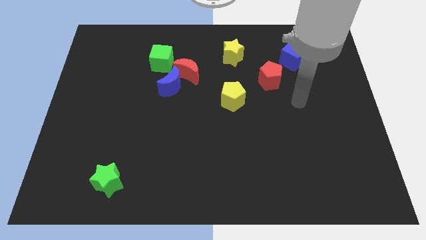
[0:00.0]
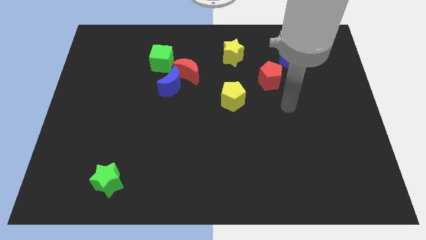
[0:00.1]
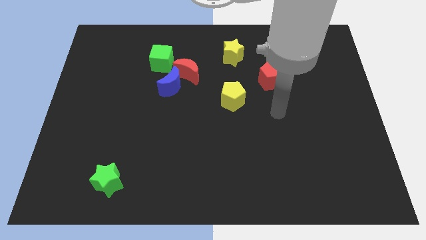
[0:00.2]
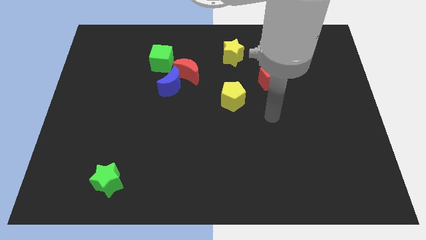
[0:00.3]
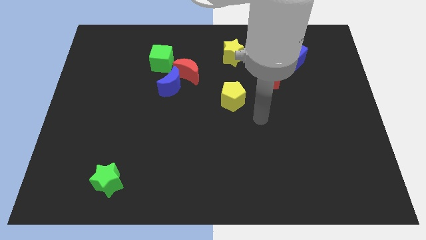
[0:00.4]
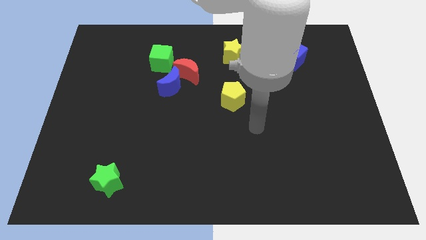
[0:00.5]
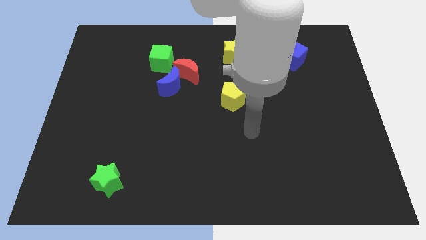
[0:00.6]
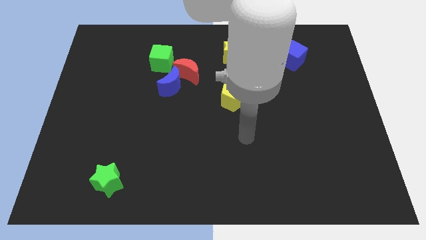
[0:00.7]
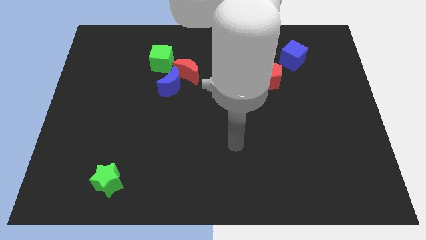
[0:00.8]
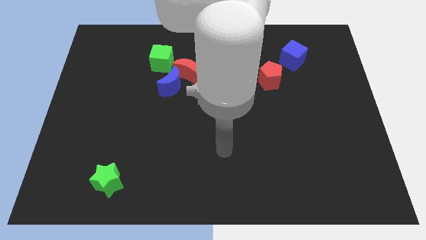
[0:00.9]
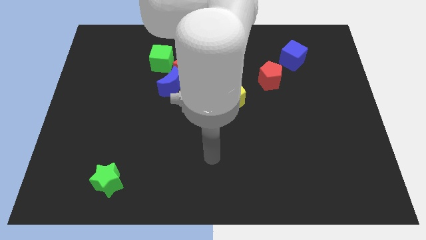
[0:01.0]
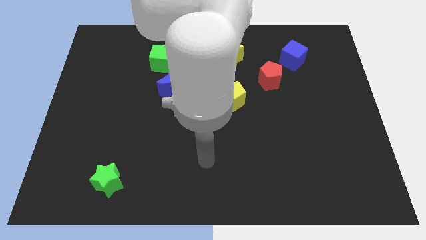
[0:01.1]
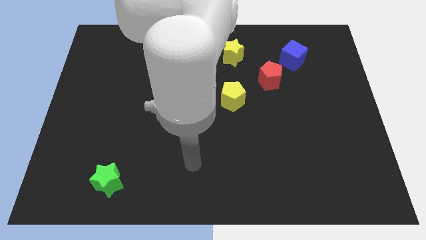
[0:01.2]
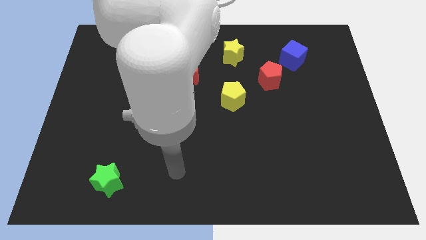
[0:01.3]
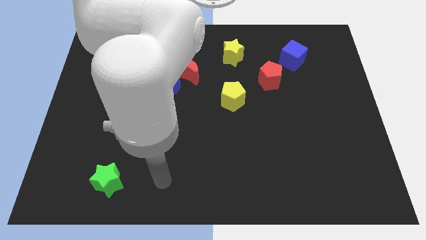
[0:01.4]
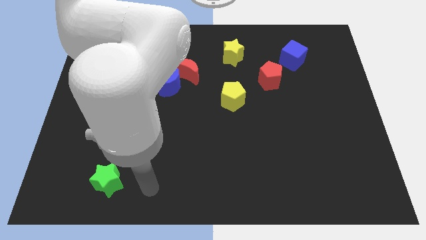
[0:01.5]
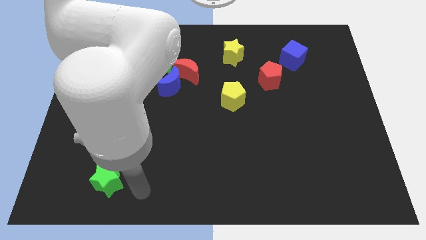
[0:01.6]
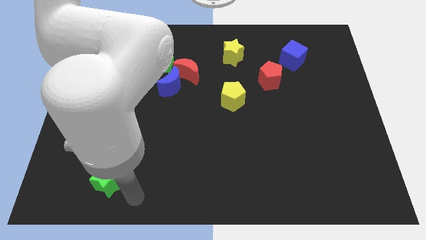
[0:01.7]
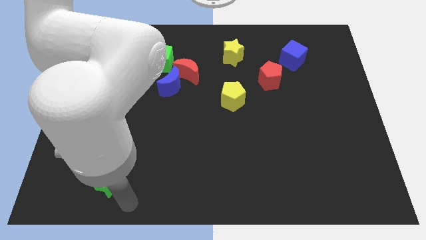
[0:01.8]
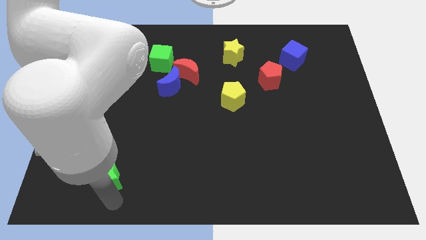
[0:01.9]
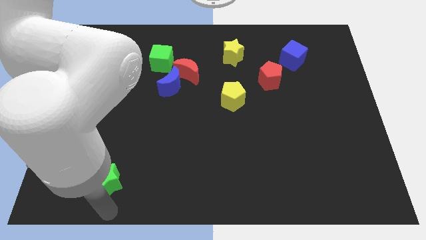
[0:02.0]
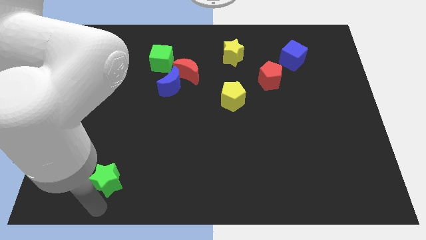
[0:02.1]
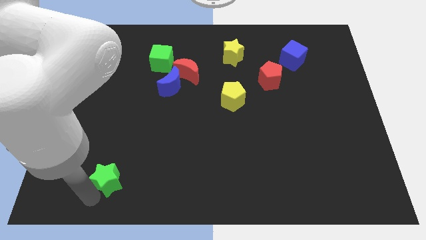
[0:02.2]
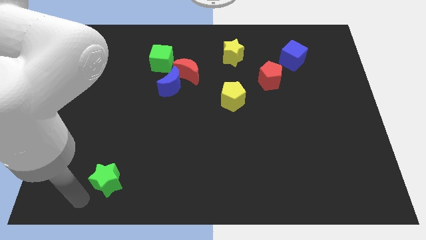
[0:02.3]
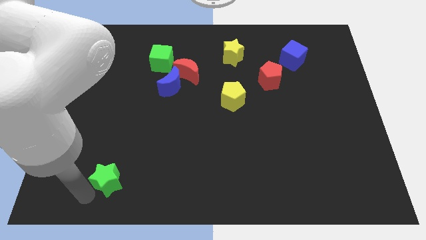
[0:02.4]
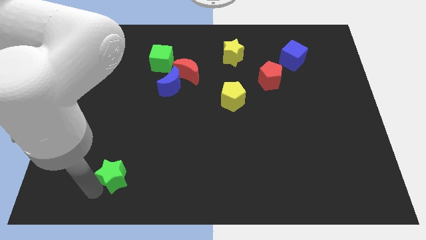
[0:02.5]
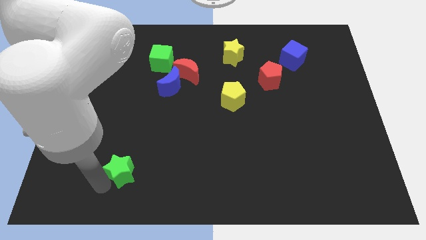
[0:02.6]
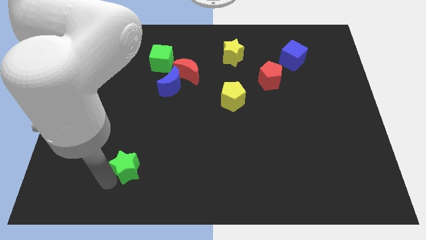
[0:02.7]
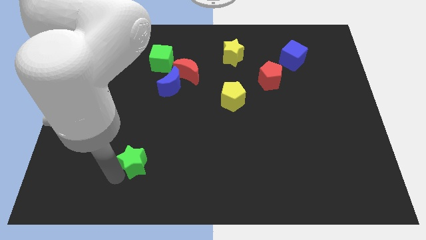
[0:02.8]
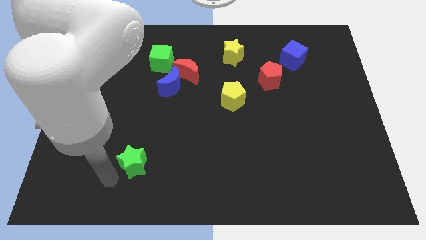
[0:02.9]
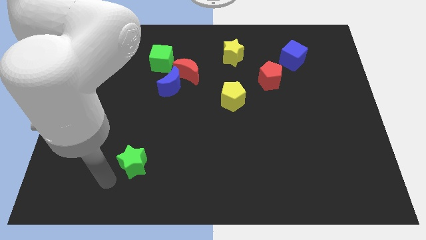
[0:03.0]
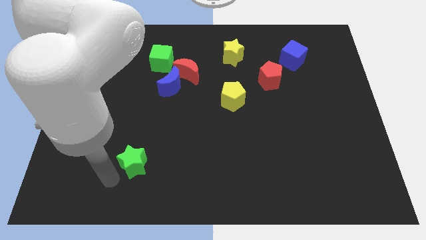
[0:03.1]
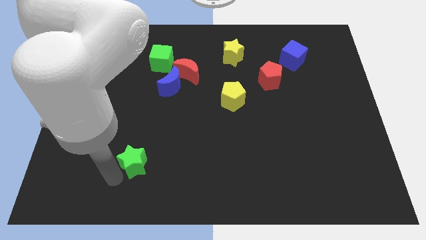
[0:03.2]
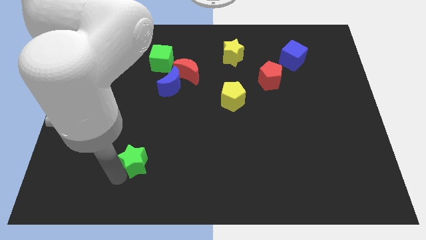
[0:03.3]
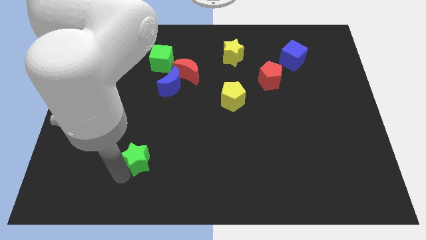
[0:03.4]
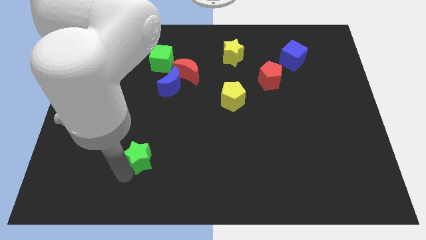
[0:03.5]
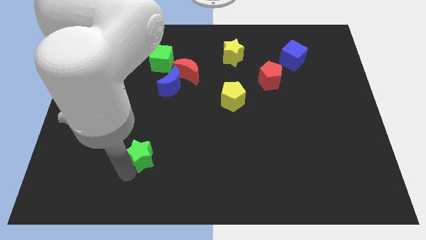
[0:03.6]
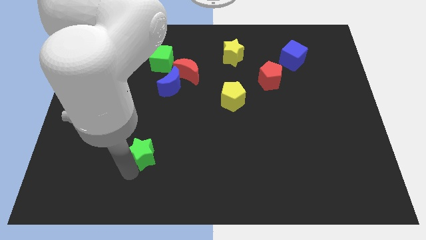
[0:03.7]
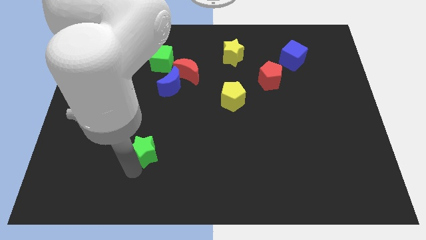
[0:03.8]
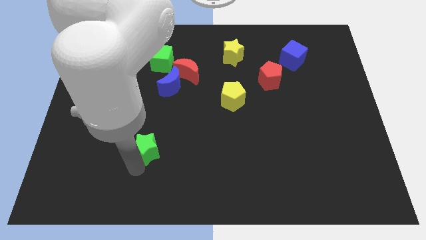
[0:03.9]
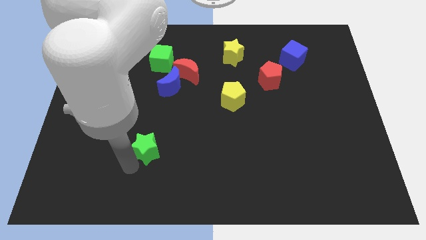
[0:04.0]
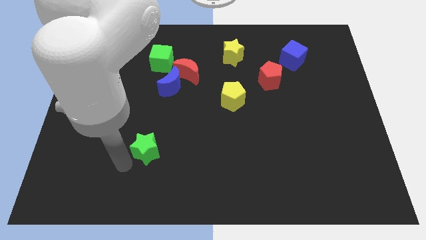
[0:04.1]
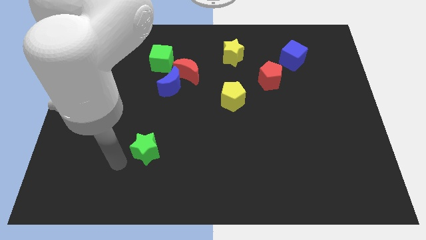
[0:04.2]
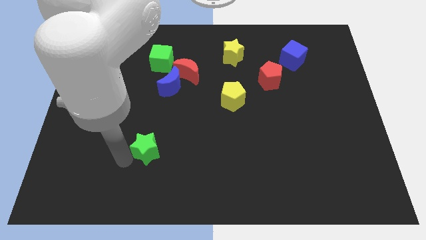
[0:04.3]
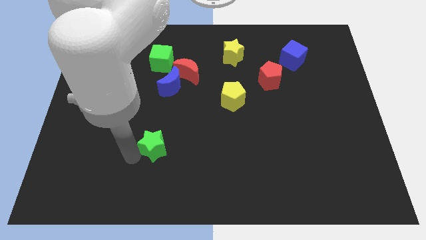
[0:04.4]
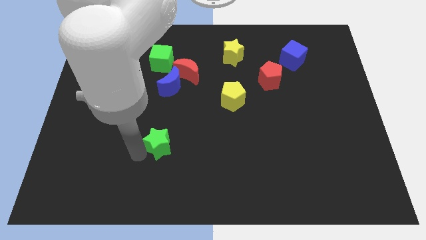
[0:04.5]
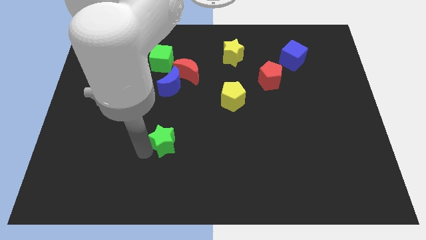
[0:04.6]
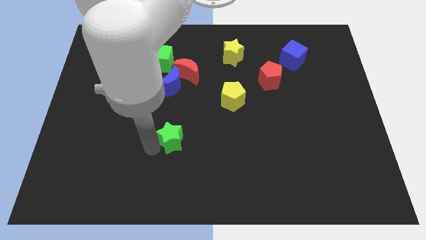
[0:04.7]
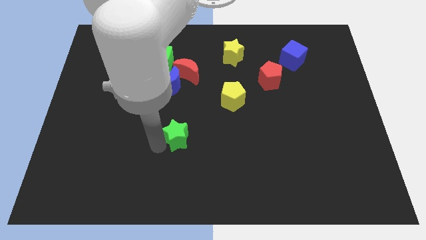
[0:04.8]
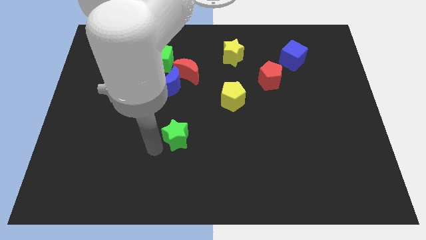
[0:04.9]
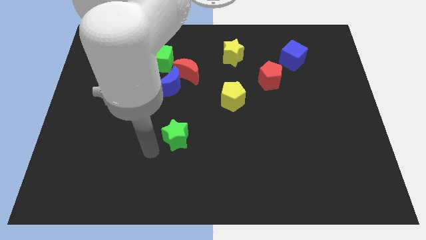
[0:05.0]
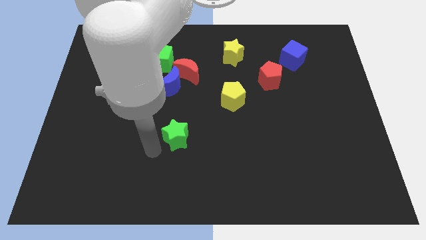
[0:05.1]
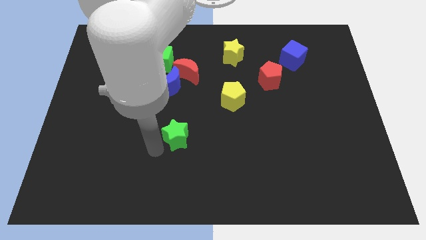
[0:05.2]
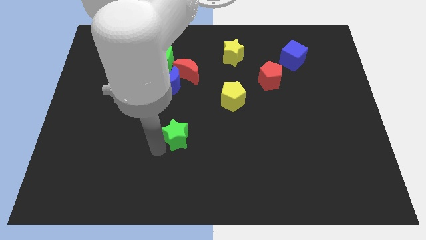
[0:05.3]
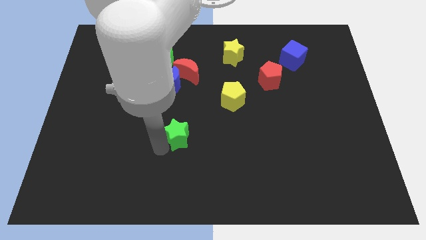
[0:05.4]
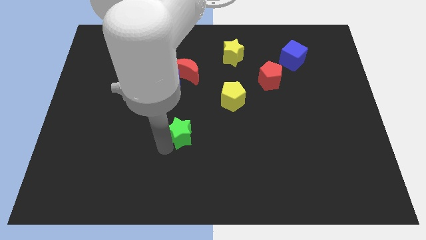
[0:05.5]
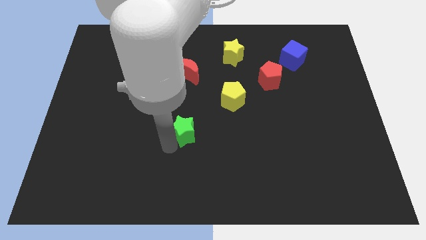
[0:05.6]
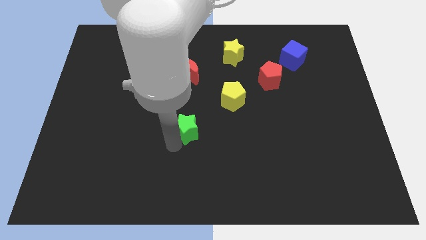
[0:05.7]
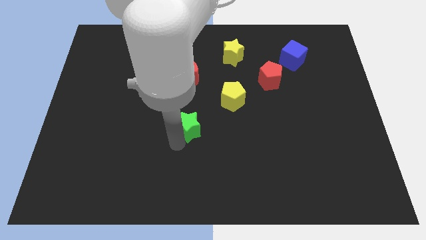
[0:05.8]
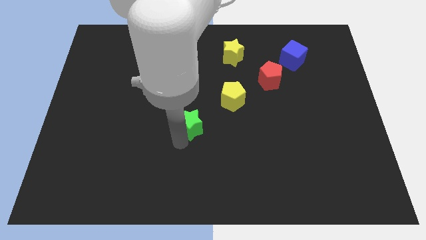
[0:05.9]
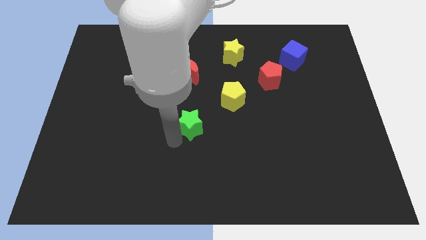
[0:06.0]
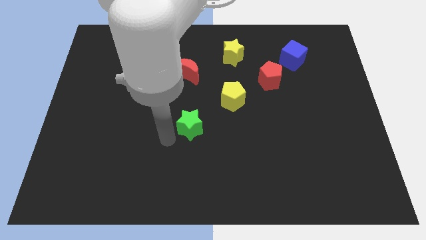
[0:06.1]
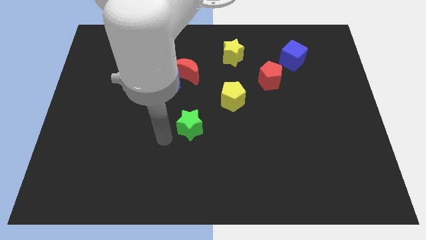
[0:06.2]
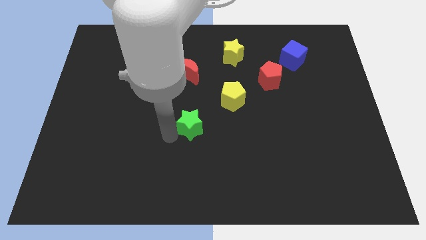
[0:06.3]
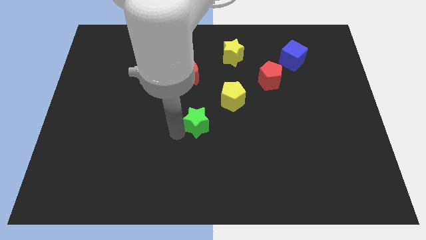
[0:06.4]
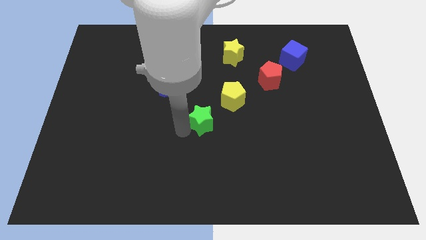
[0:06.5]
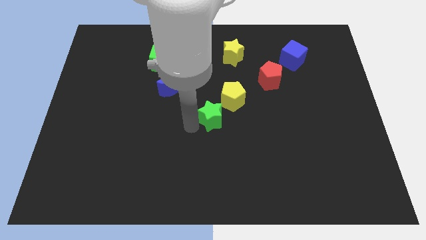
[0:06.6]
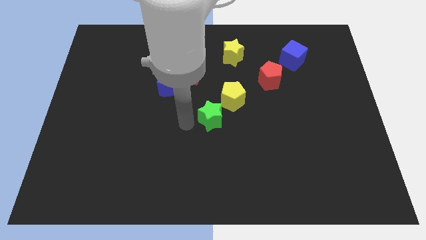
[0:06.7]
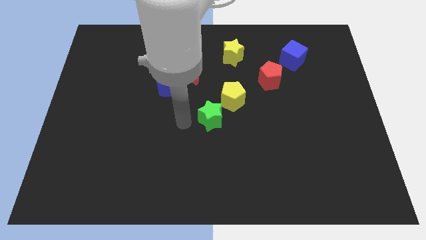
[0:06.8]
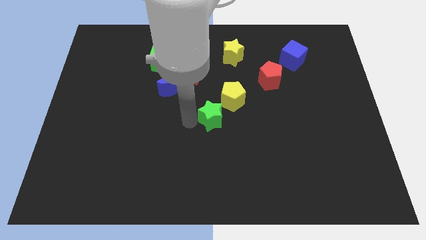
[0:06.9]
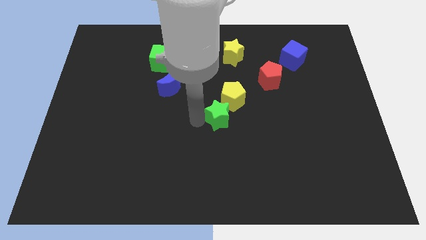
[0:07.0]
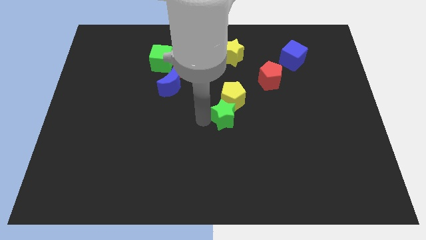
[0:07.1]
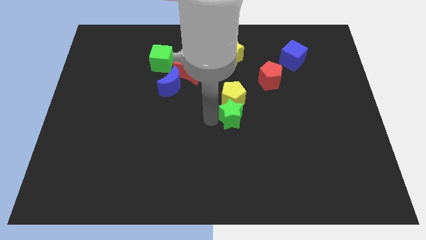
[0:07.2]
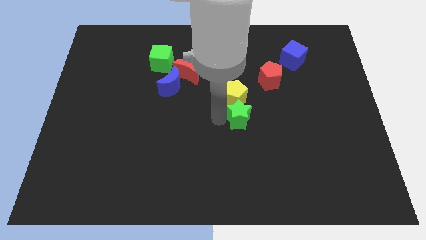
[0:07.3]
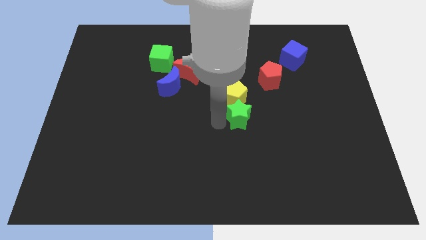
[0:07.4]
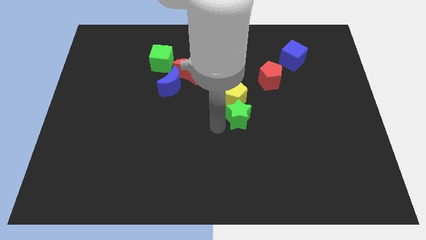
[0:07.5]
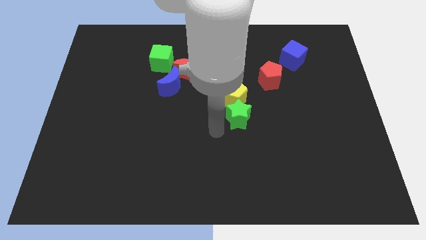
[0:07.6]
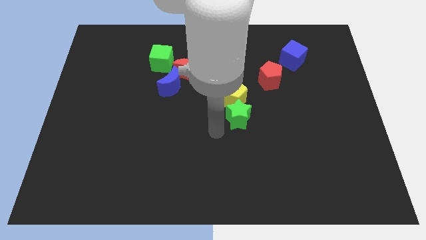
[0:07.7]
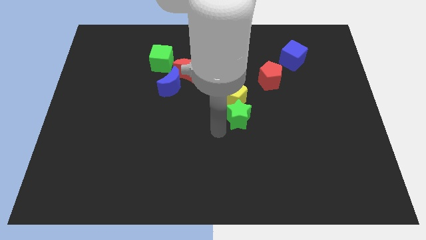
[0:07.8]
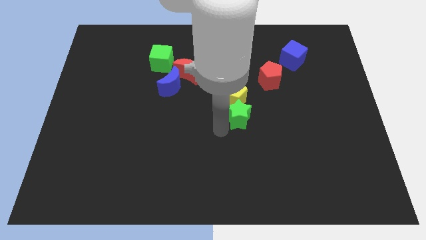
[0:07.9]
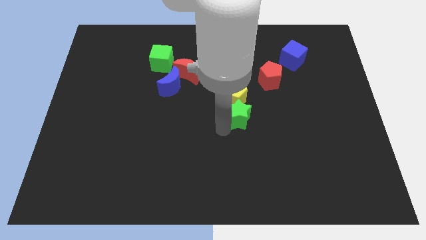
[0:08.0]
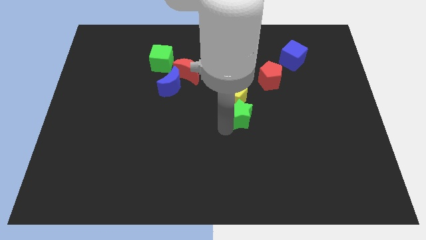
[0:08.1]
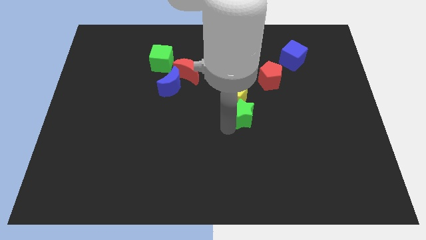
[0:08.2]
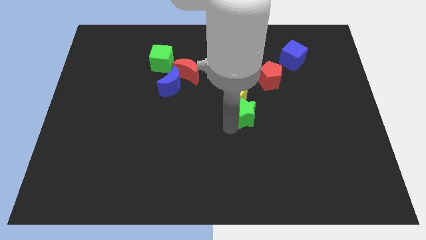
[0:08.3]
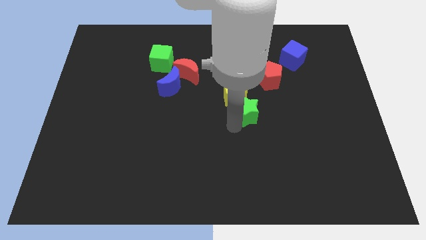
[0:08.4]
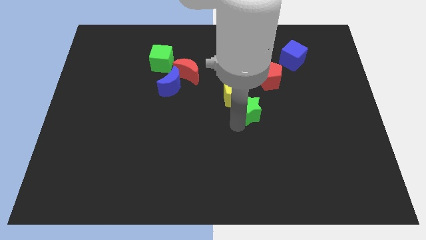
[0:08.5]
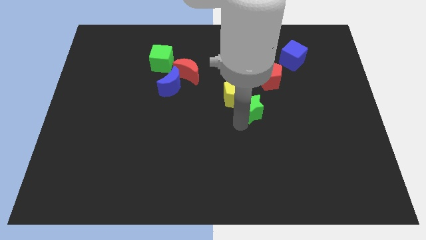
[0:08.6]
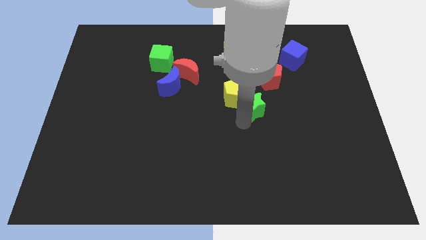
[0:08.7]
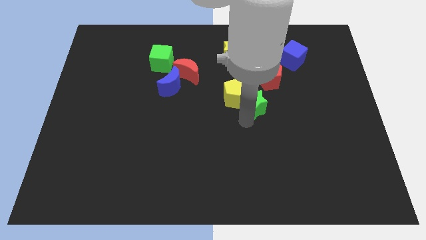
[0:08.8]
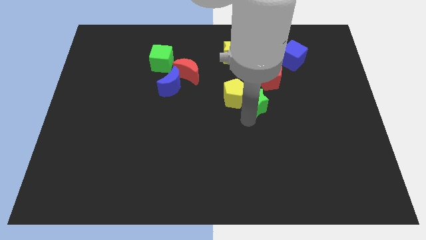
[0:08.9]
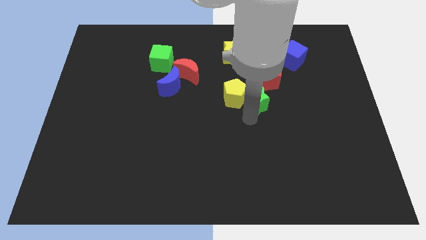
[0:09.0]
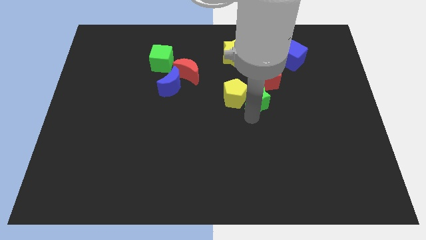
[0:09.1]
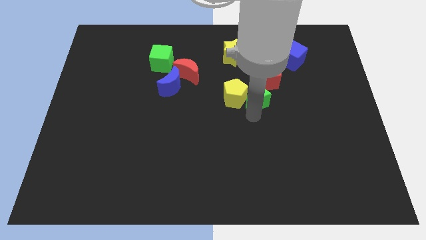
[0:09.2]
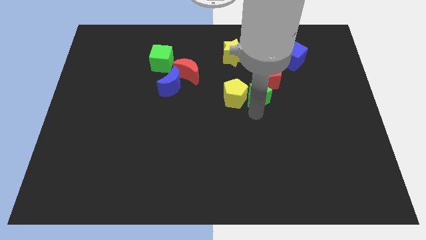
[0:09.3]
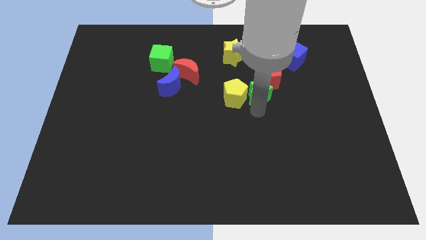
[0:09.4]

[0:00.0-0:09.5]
push the green star next to the red pentagon
